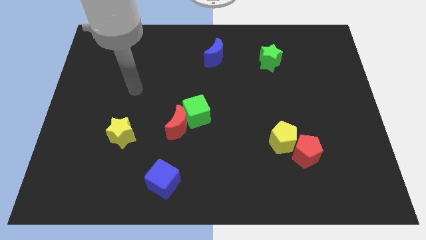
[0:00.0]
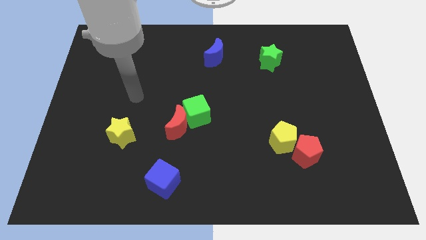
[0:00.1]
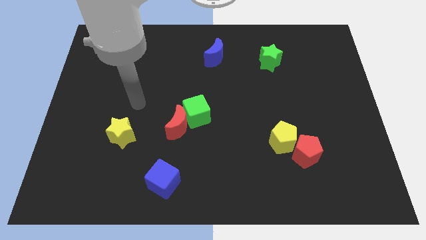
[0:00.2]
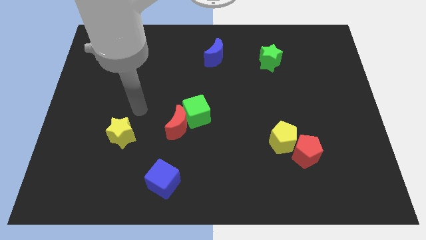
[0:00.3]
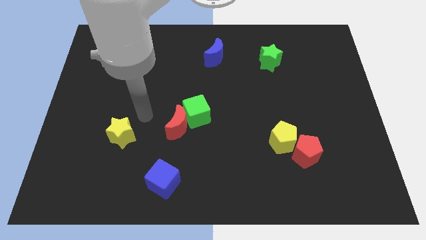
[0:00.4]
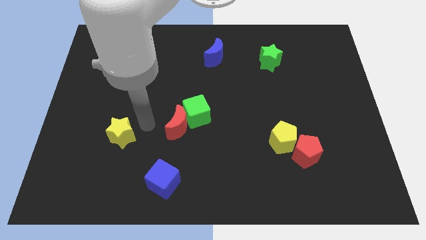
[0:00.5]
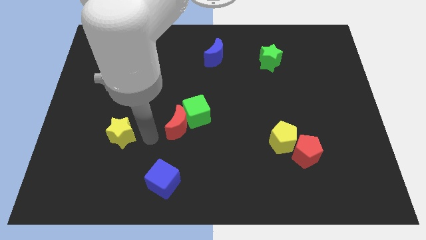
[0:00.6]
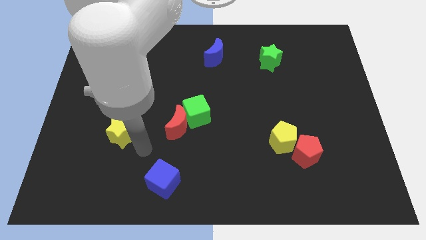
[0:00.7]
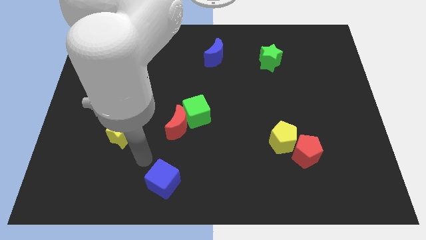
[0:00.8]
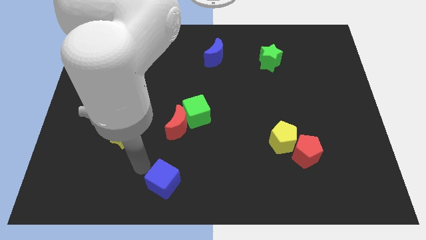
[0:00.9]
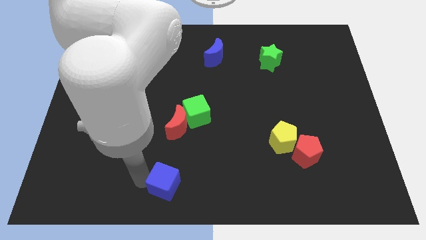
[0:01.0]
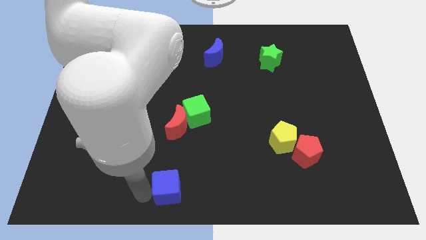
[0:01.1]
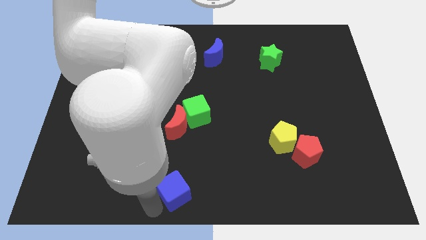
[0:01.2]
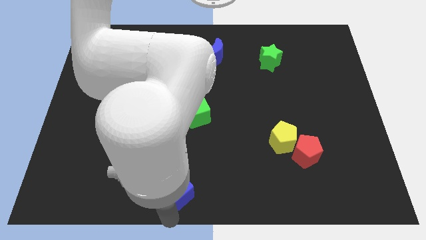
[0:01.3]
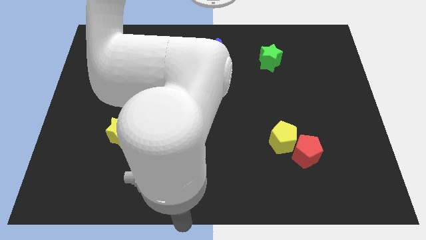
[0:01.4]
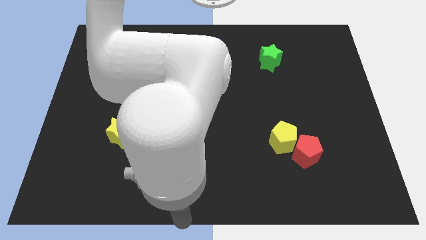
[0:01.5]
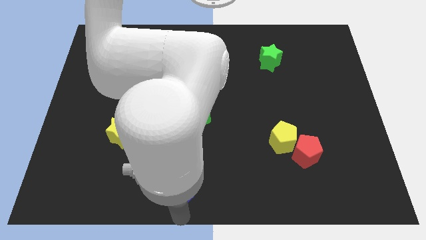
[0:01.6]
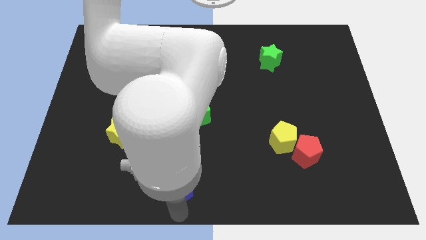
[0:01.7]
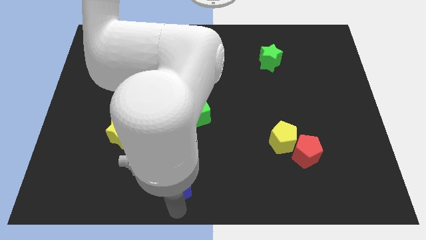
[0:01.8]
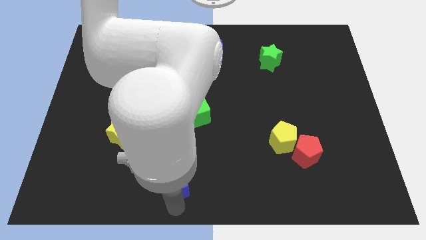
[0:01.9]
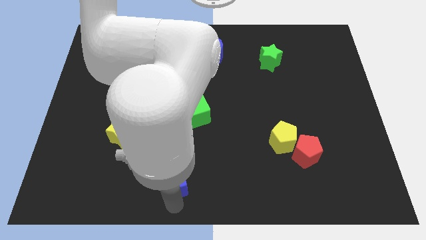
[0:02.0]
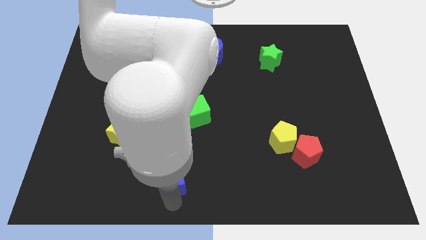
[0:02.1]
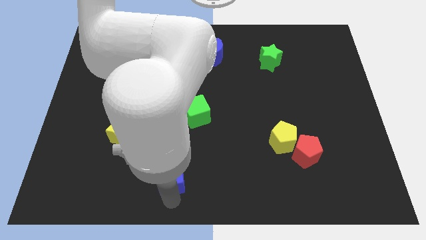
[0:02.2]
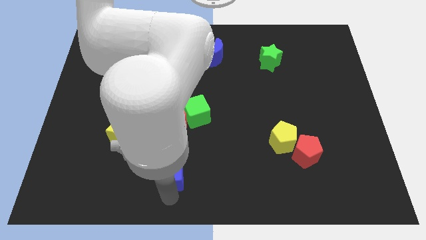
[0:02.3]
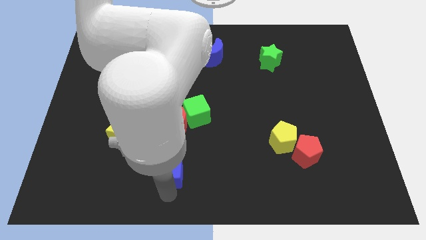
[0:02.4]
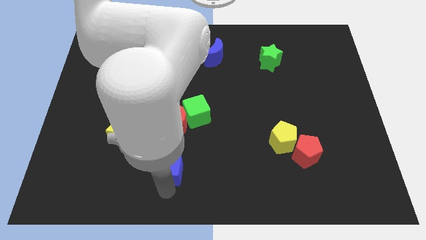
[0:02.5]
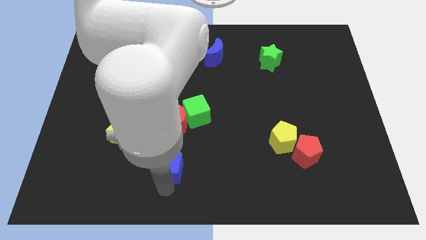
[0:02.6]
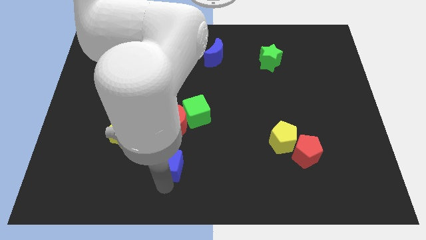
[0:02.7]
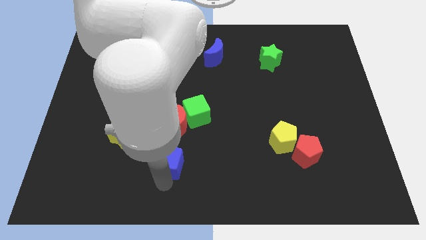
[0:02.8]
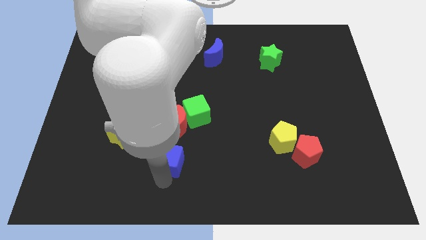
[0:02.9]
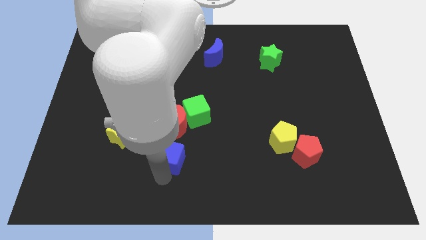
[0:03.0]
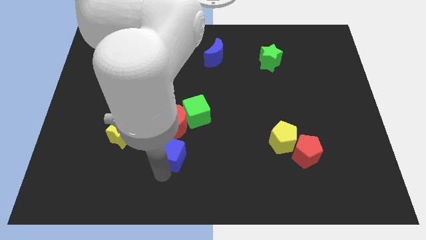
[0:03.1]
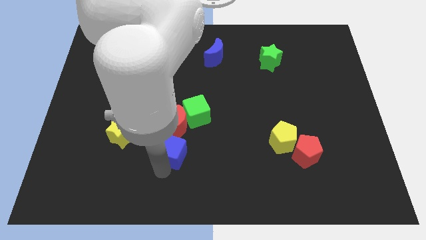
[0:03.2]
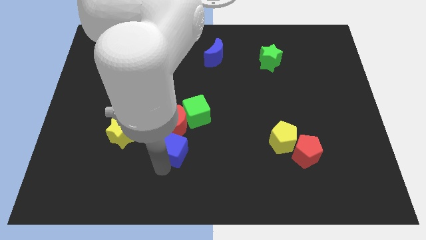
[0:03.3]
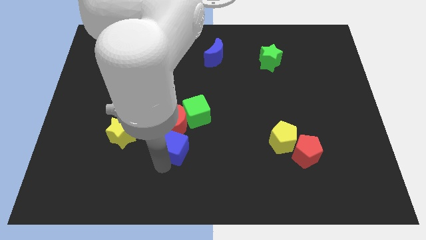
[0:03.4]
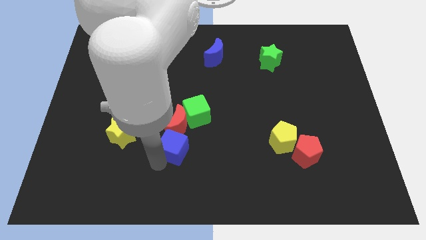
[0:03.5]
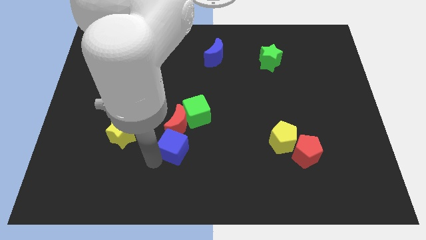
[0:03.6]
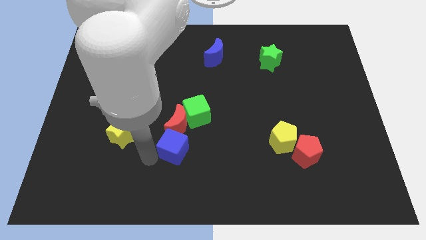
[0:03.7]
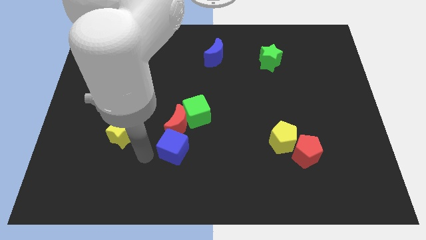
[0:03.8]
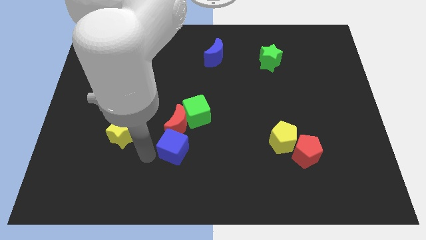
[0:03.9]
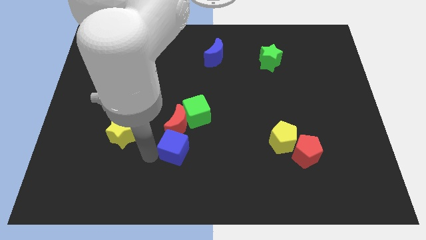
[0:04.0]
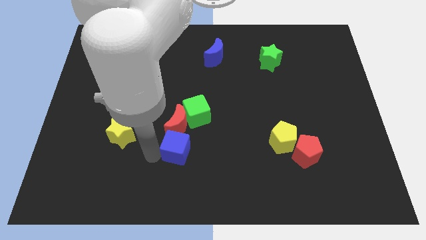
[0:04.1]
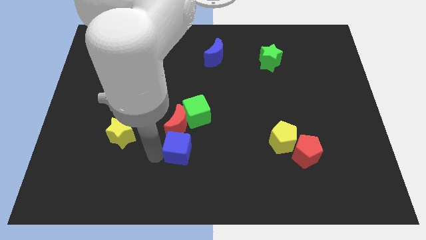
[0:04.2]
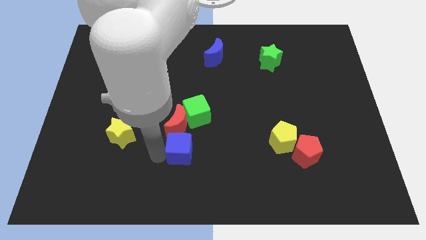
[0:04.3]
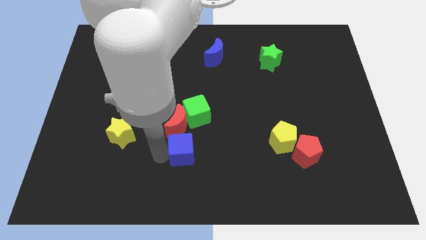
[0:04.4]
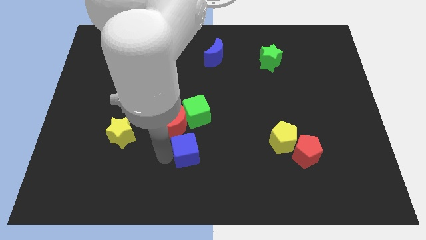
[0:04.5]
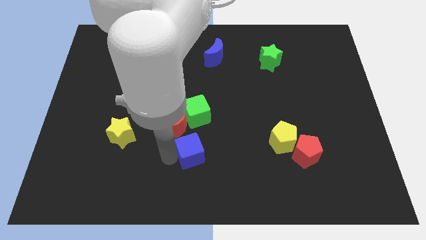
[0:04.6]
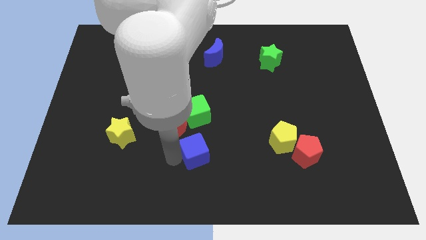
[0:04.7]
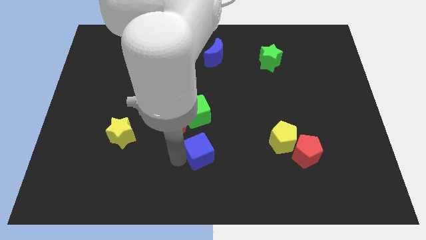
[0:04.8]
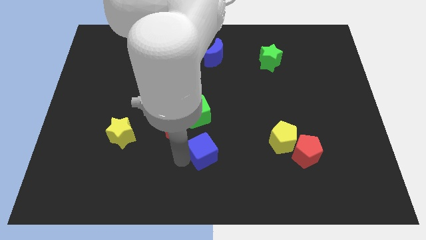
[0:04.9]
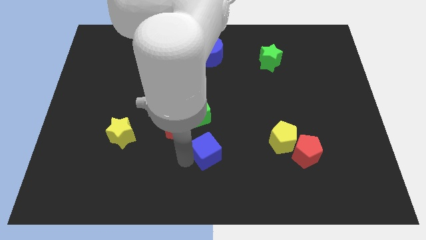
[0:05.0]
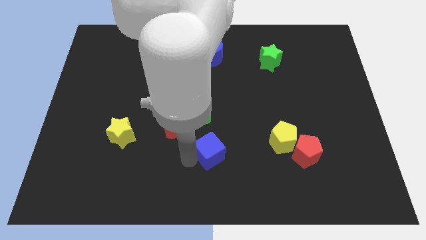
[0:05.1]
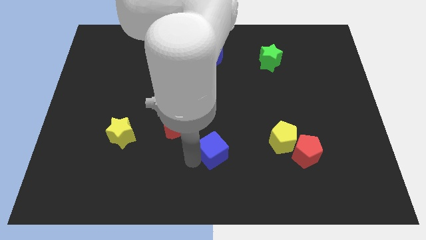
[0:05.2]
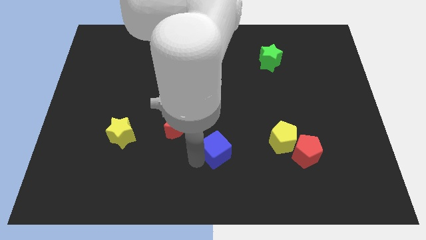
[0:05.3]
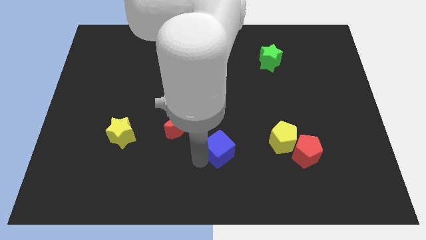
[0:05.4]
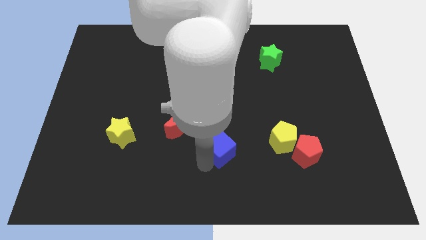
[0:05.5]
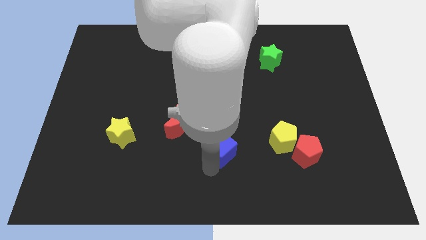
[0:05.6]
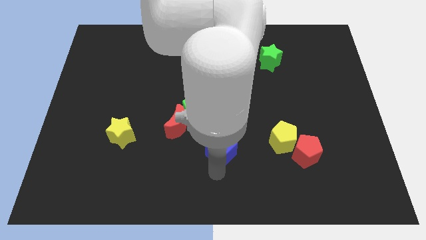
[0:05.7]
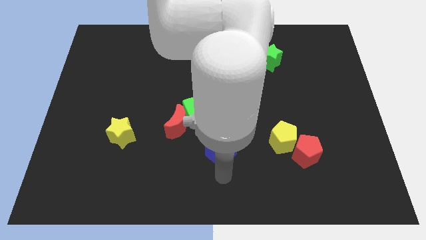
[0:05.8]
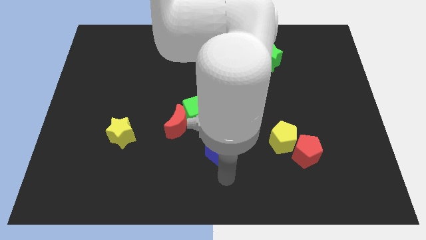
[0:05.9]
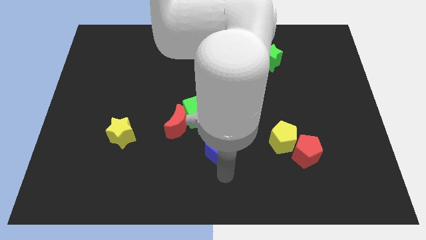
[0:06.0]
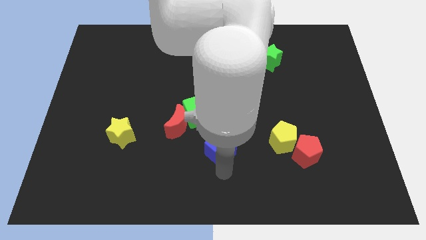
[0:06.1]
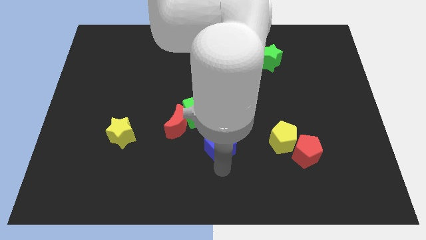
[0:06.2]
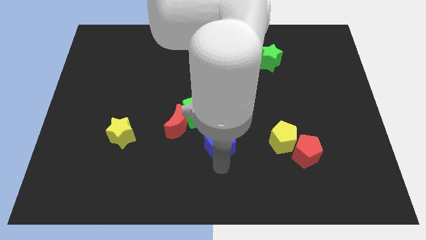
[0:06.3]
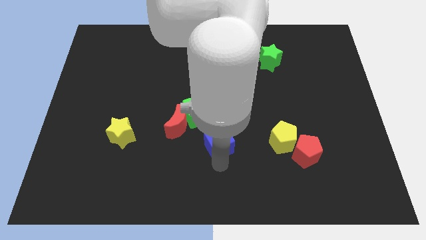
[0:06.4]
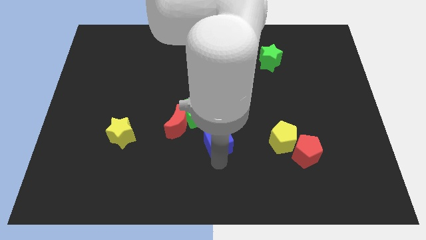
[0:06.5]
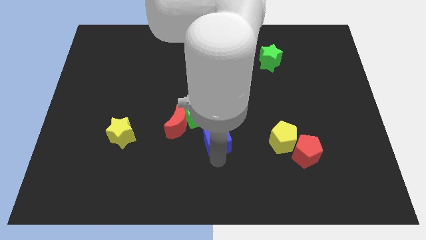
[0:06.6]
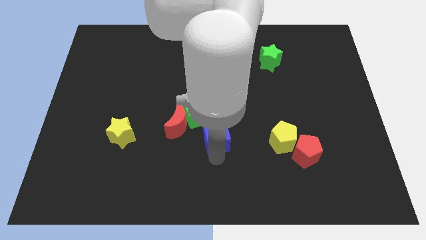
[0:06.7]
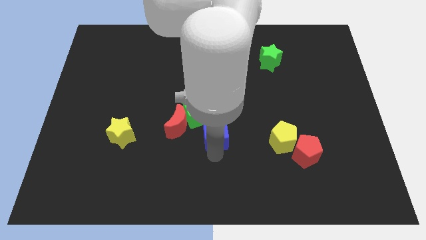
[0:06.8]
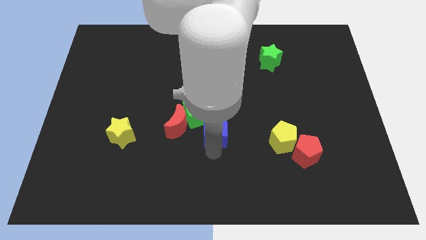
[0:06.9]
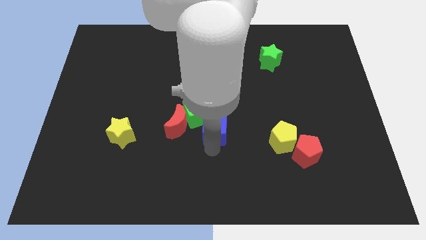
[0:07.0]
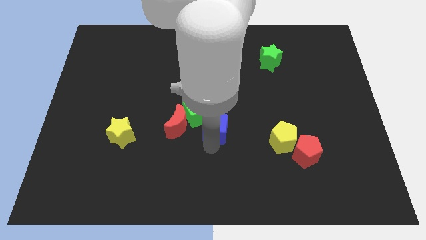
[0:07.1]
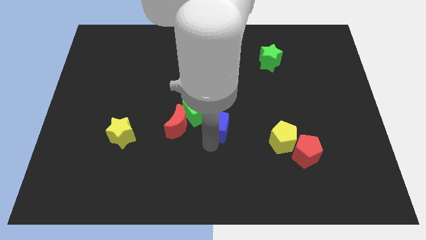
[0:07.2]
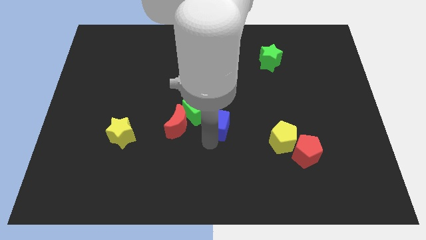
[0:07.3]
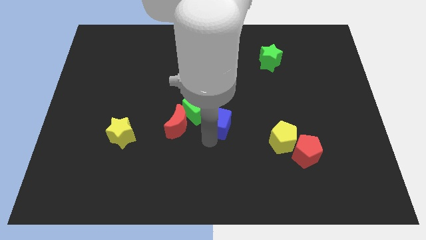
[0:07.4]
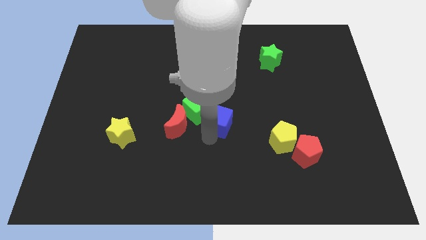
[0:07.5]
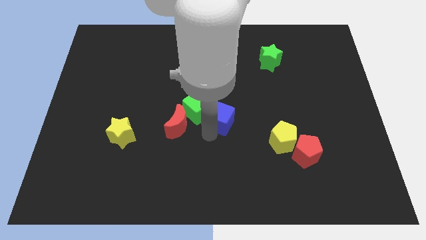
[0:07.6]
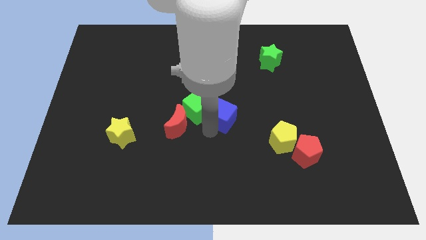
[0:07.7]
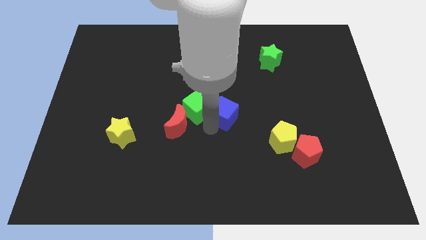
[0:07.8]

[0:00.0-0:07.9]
slide the blue cube upwards and then to the right
